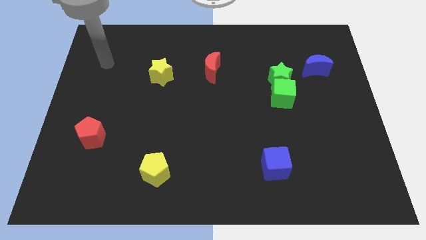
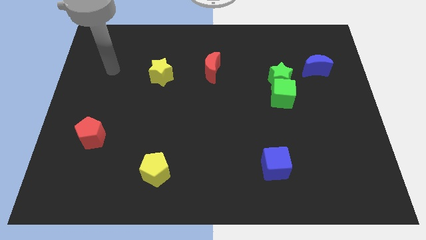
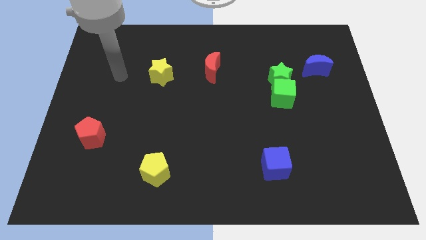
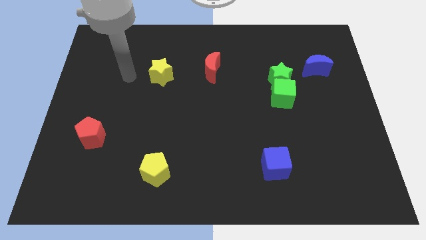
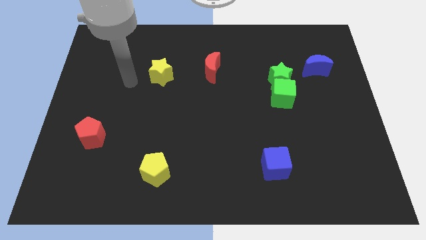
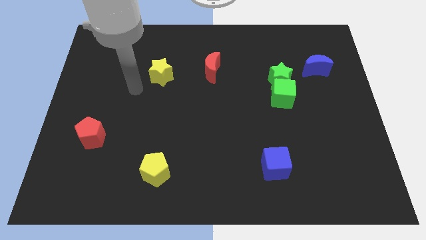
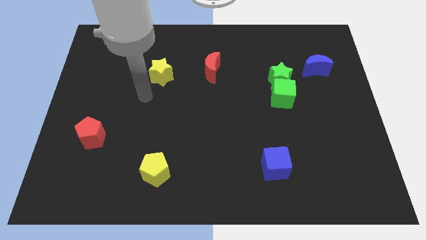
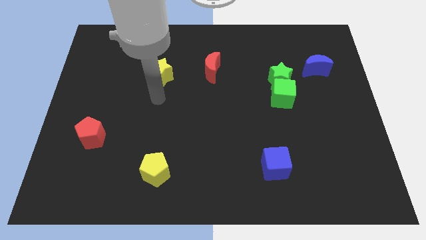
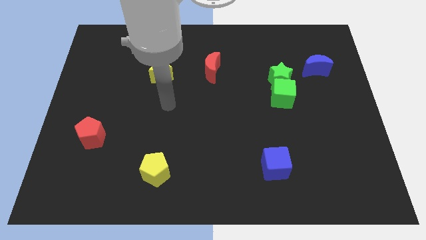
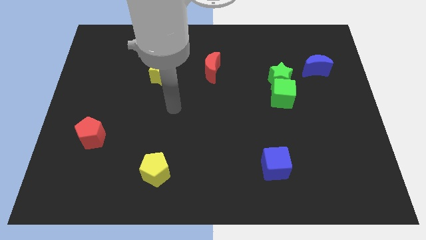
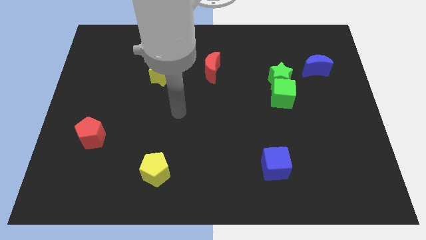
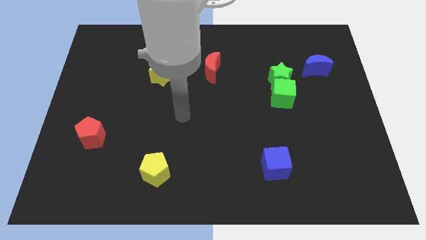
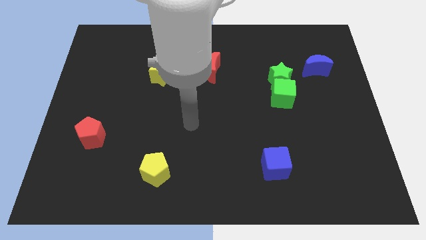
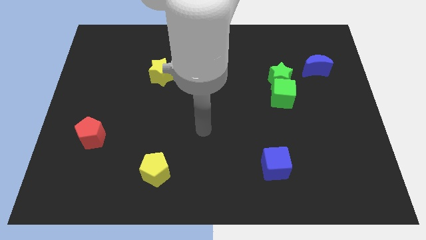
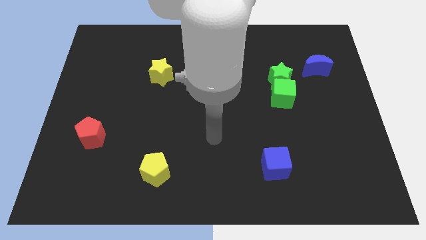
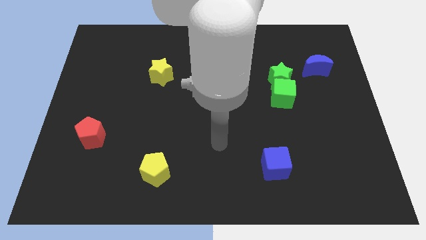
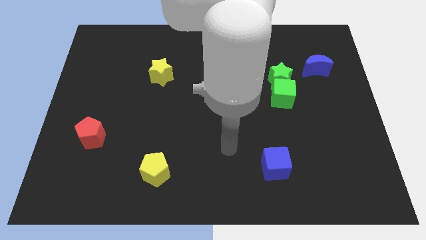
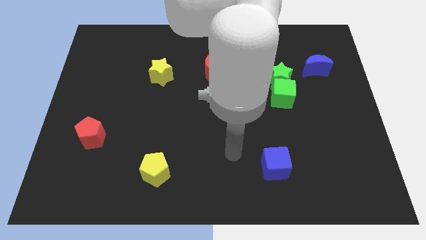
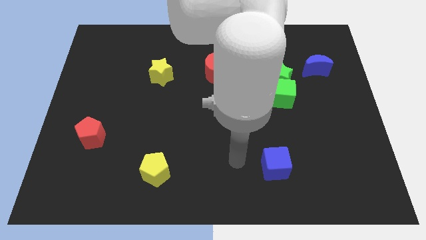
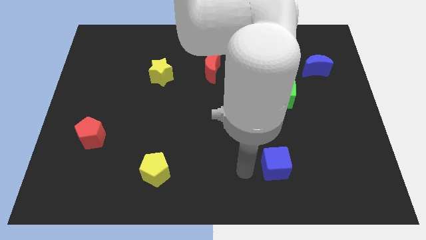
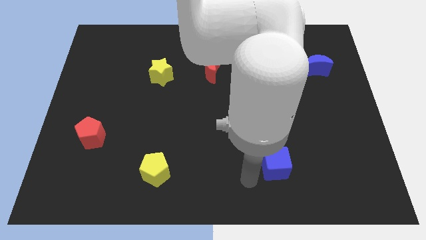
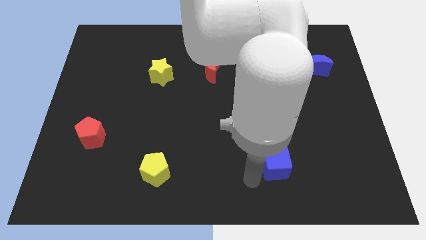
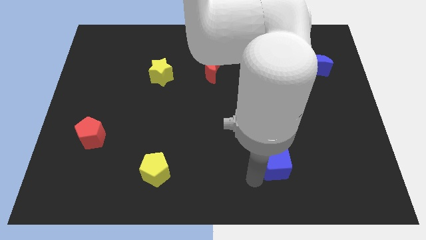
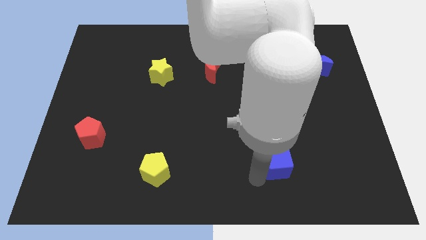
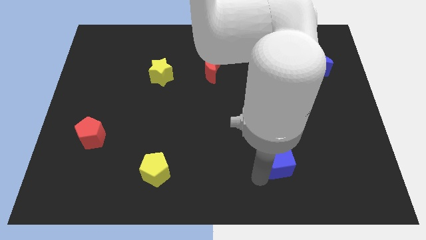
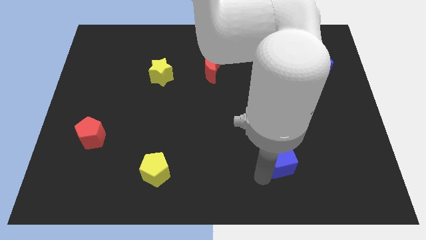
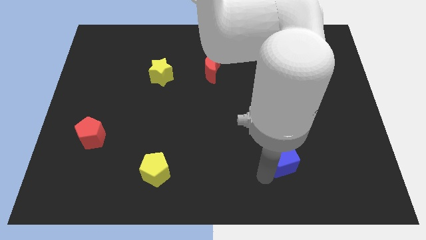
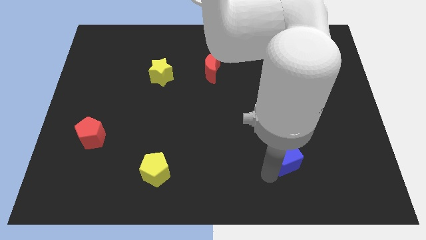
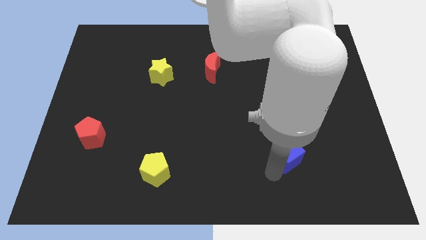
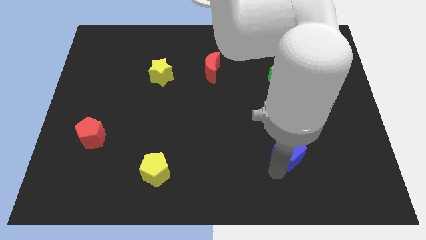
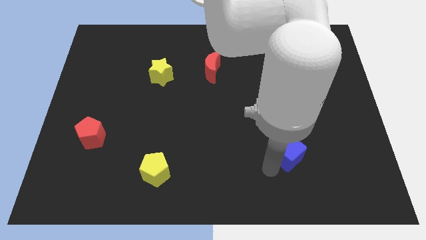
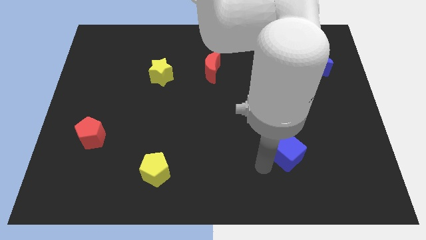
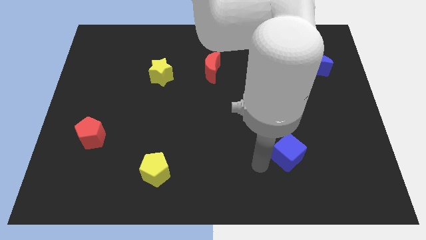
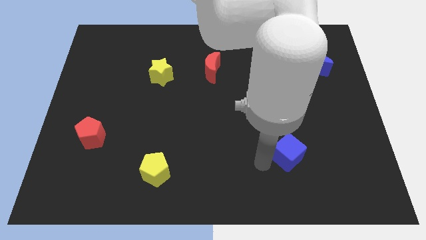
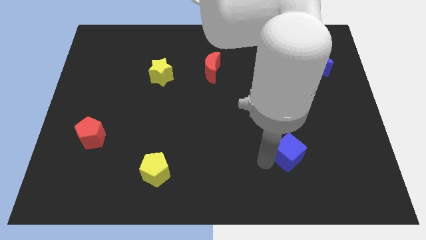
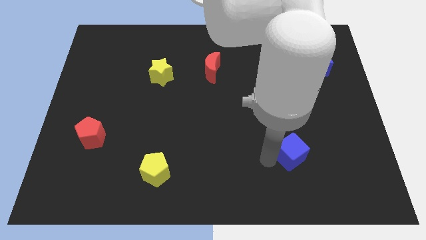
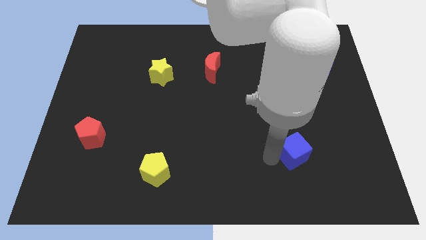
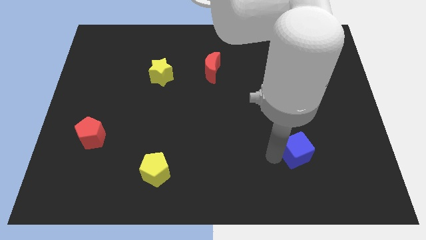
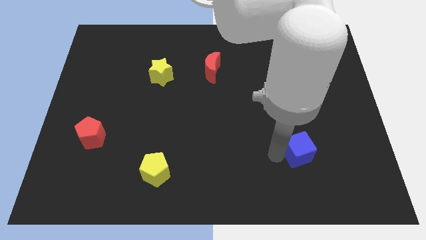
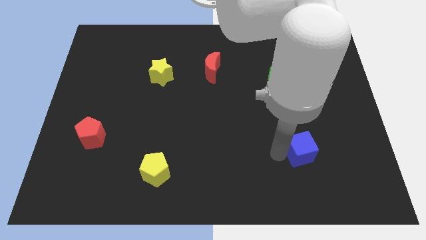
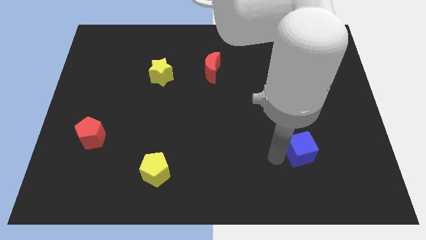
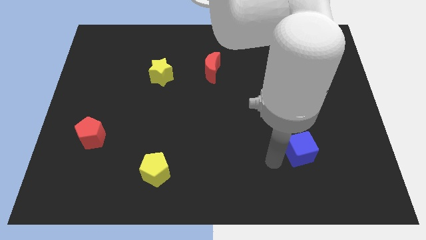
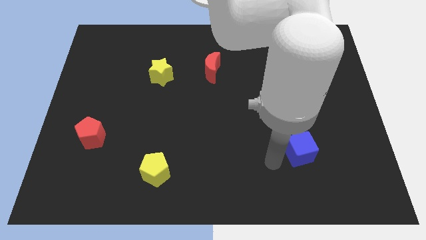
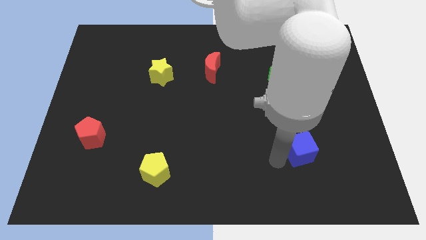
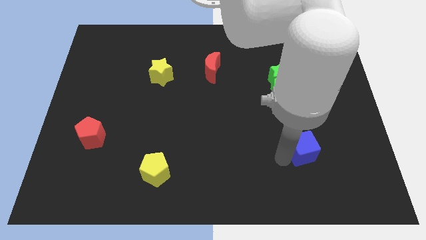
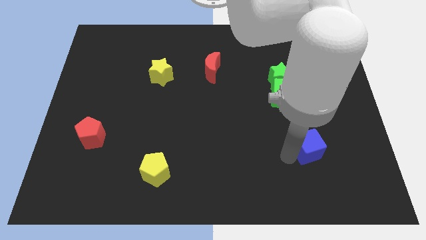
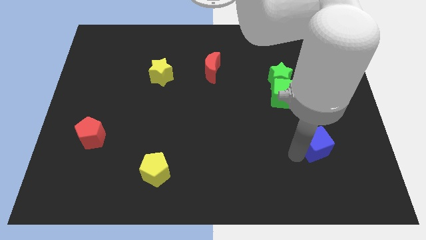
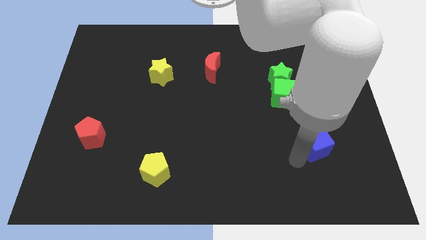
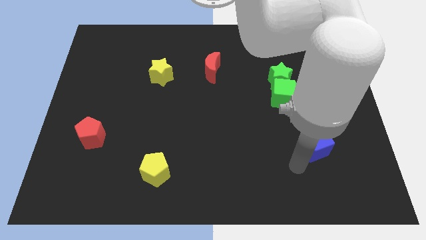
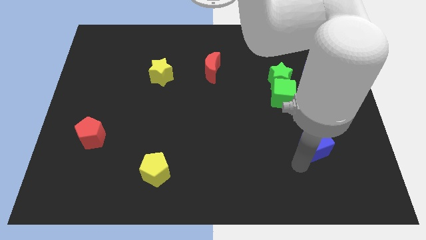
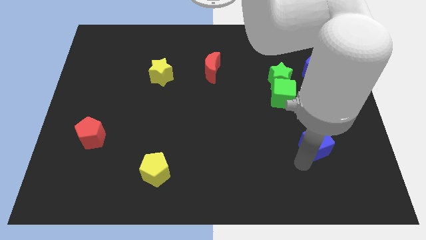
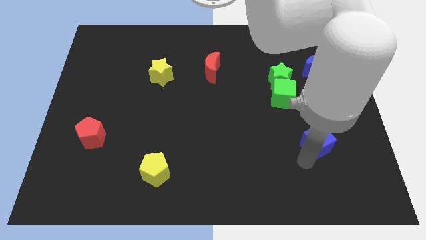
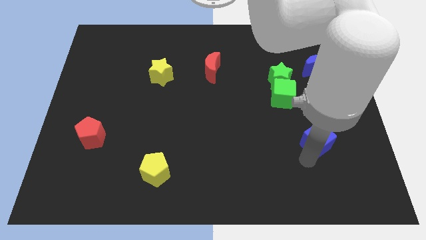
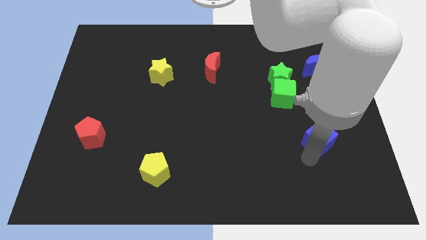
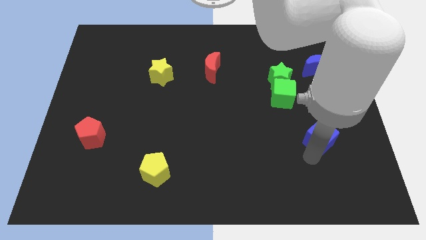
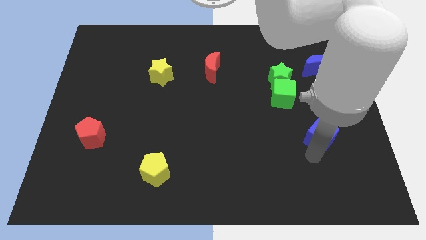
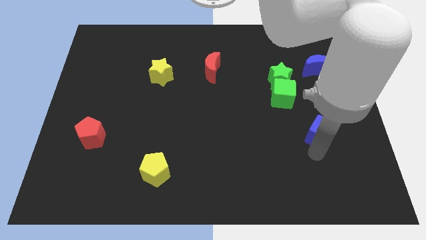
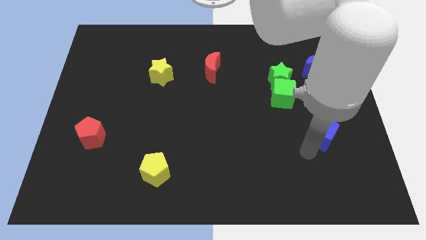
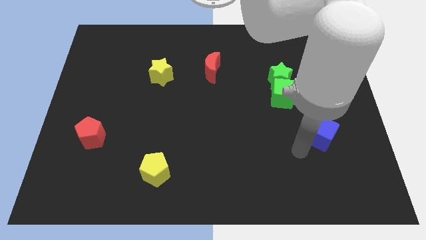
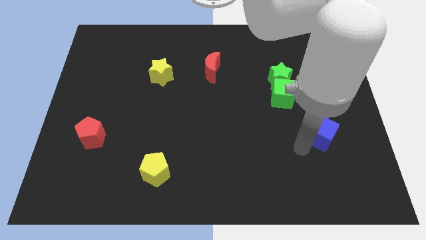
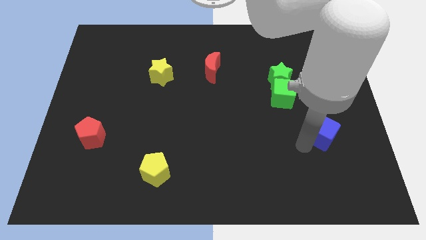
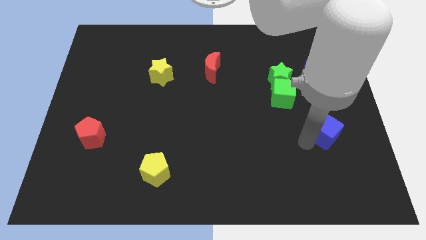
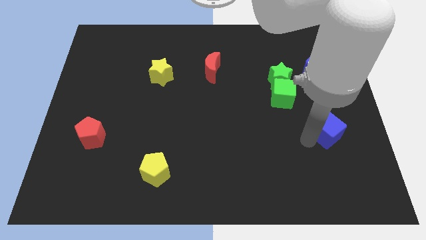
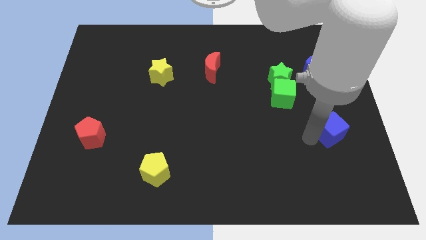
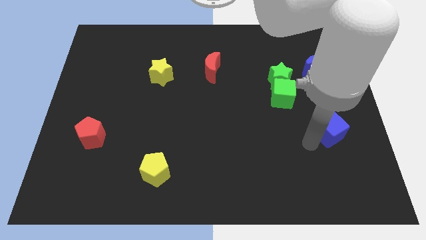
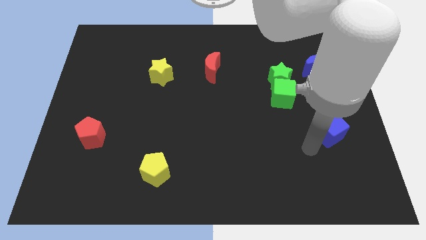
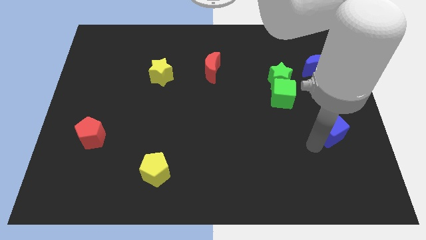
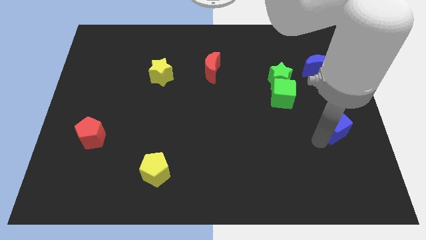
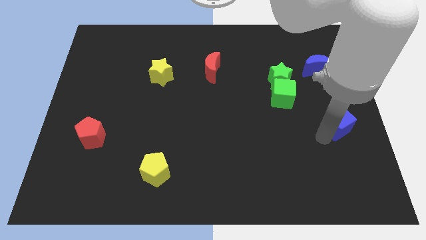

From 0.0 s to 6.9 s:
slide the blue cube to the right side of the board
